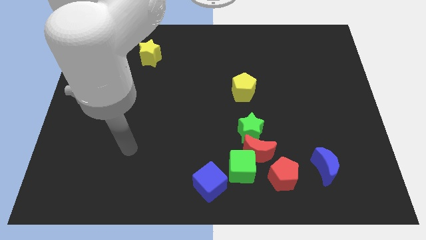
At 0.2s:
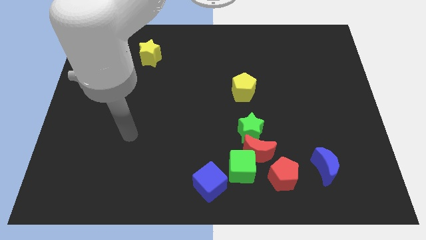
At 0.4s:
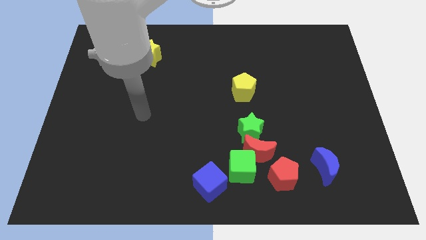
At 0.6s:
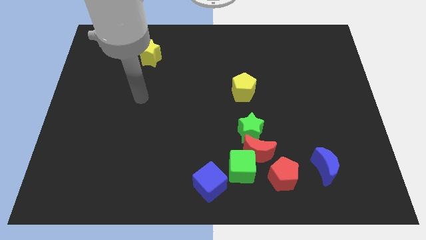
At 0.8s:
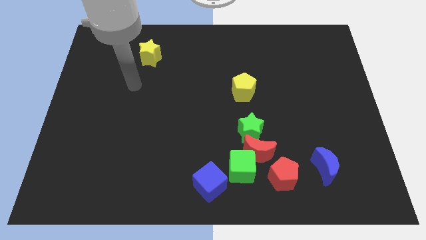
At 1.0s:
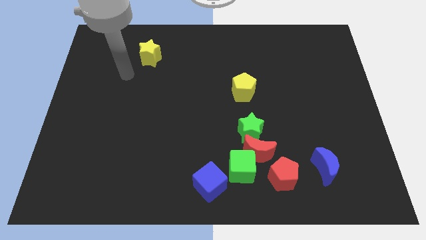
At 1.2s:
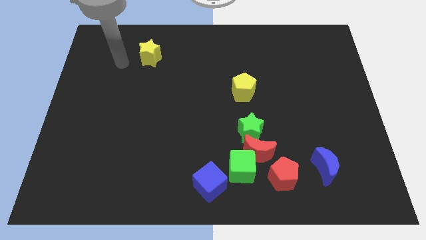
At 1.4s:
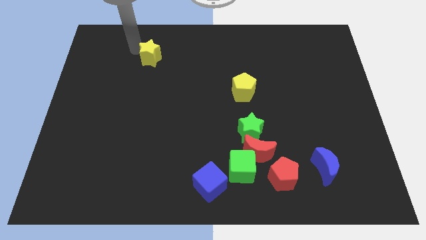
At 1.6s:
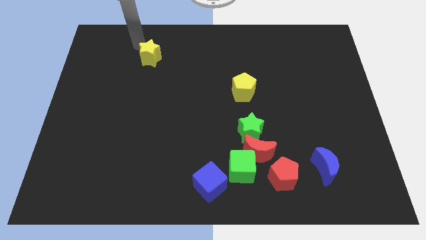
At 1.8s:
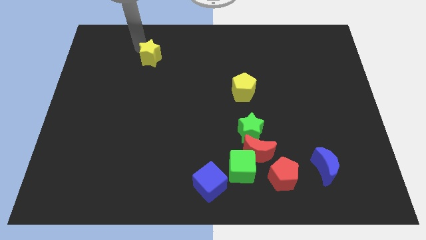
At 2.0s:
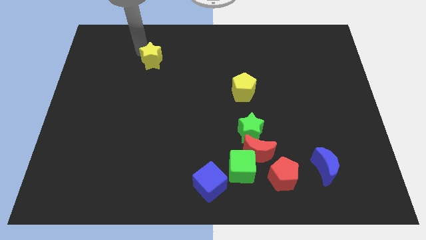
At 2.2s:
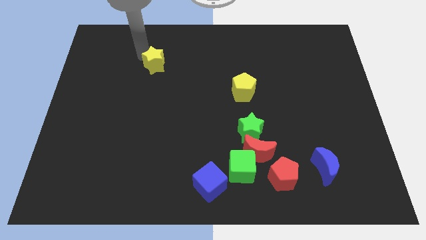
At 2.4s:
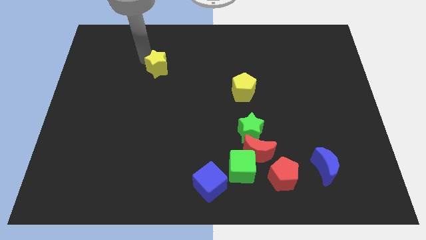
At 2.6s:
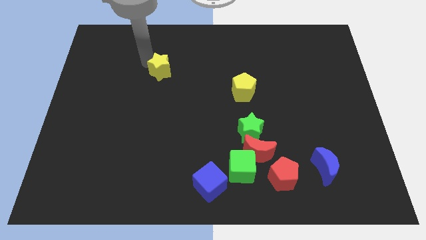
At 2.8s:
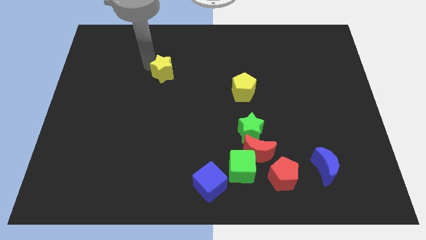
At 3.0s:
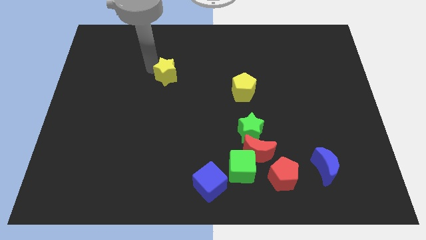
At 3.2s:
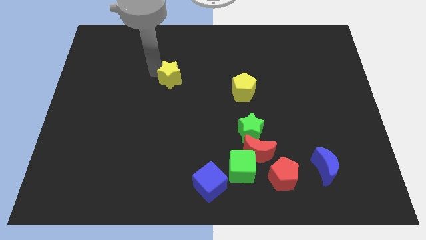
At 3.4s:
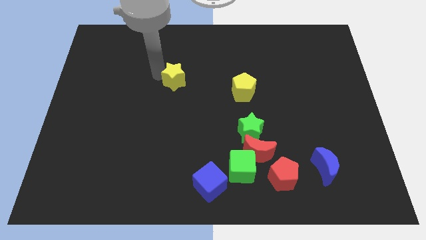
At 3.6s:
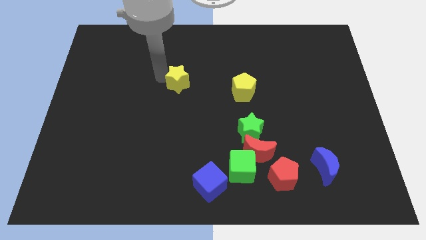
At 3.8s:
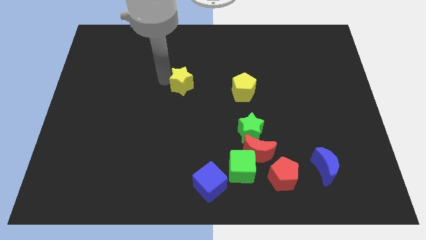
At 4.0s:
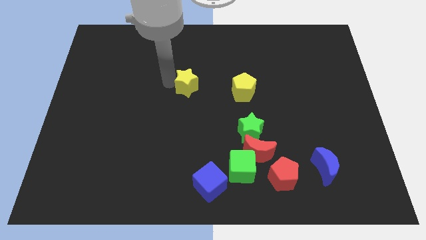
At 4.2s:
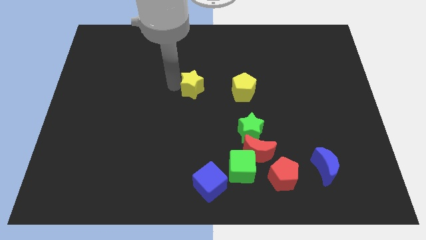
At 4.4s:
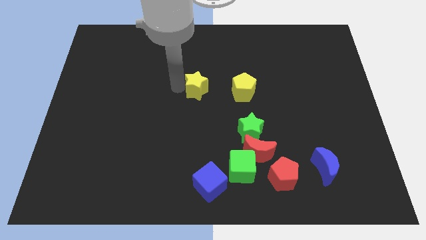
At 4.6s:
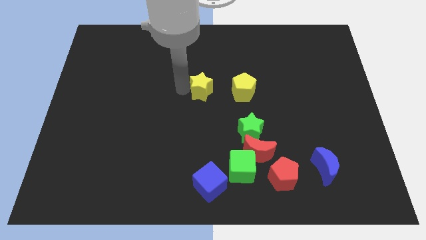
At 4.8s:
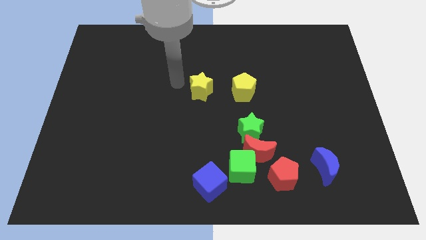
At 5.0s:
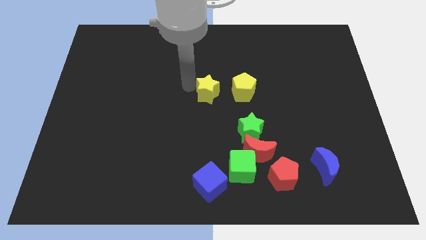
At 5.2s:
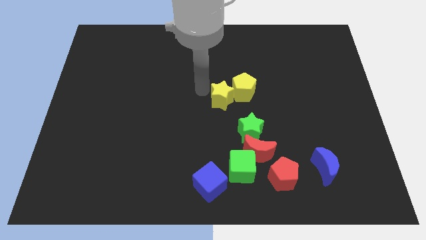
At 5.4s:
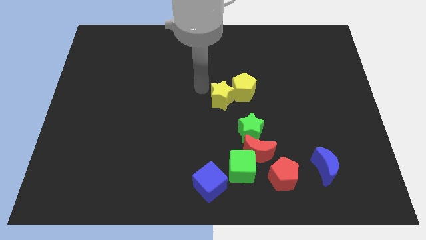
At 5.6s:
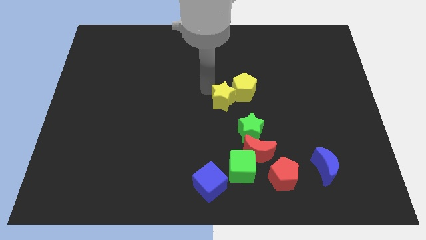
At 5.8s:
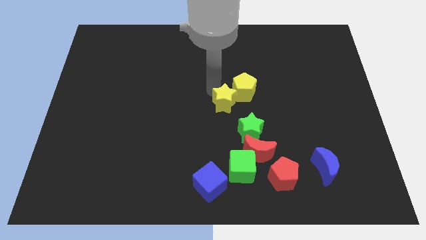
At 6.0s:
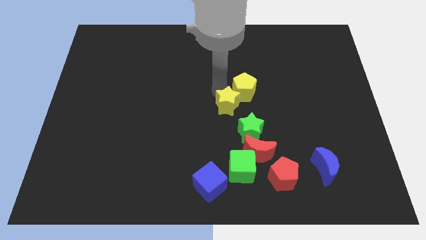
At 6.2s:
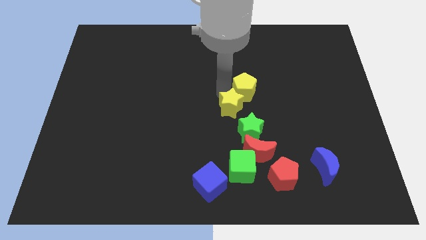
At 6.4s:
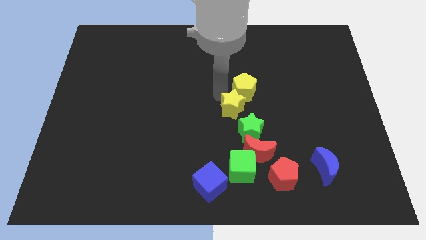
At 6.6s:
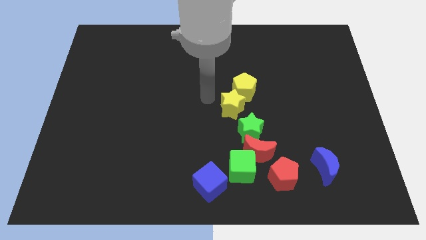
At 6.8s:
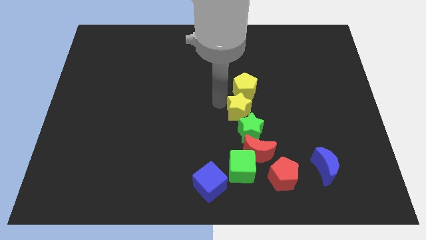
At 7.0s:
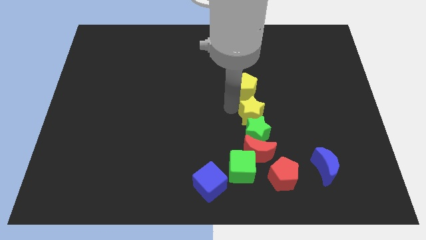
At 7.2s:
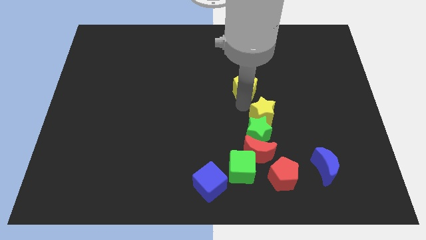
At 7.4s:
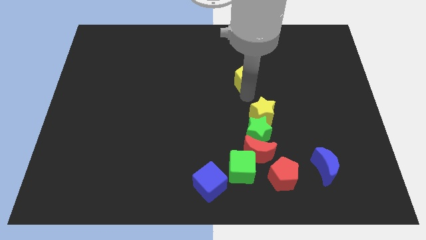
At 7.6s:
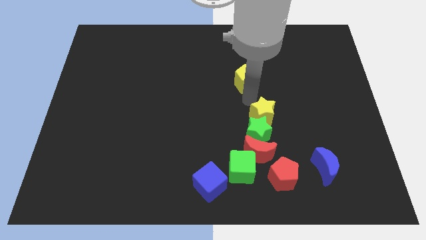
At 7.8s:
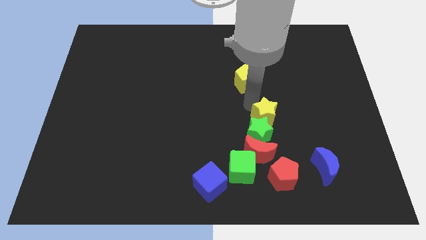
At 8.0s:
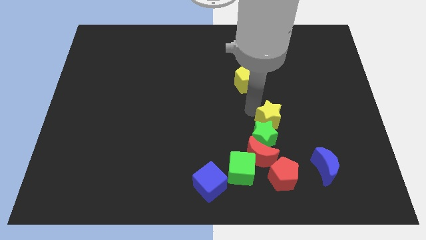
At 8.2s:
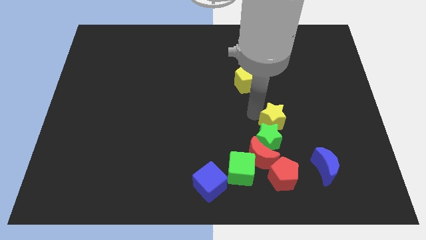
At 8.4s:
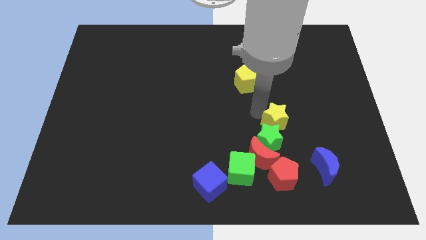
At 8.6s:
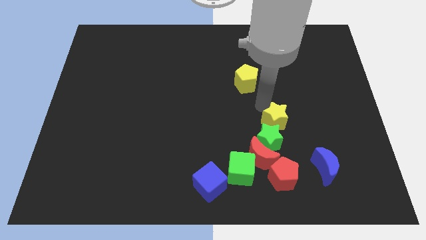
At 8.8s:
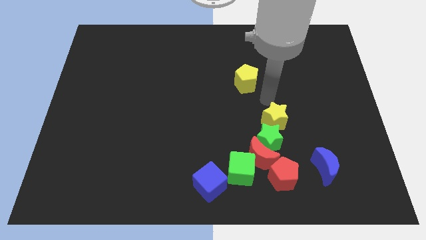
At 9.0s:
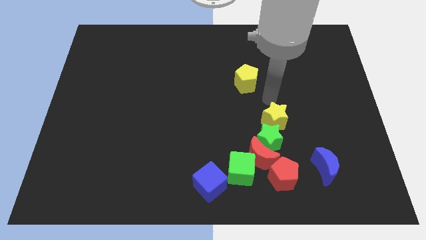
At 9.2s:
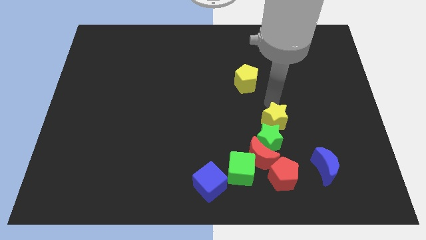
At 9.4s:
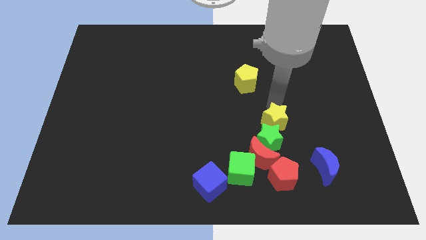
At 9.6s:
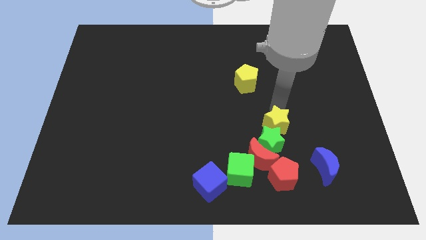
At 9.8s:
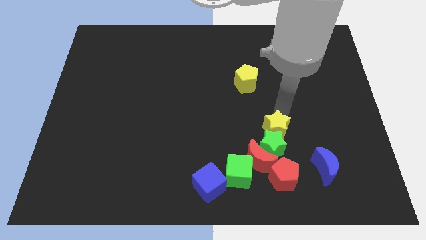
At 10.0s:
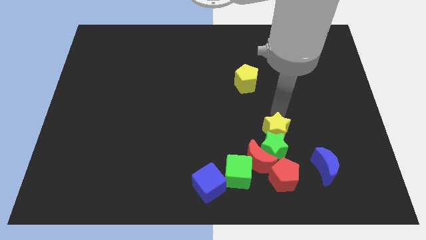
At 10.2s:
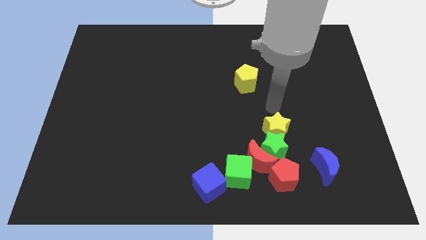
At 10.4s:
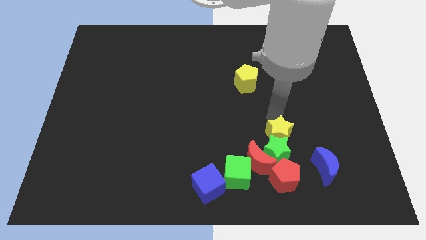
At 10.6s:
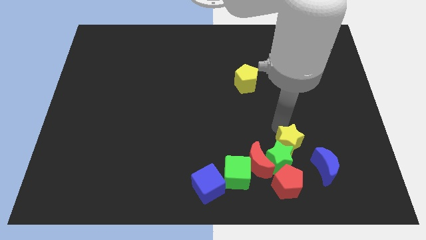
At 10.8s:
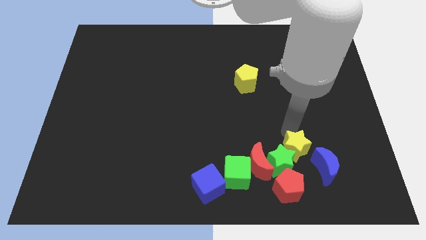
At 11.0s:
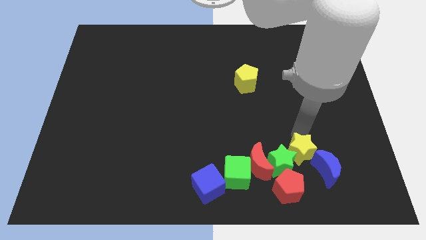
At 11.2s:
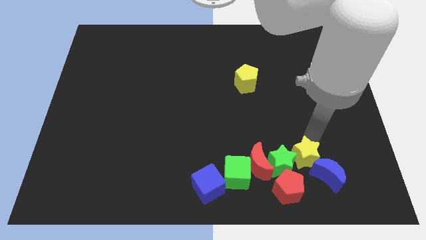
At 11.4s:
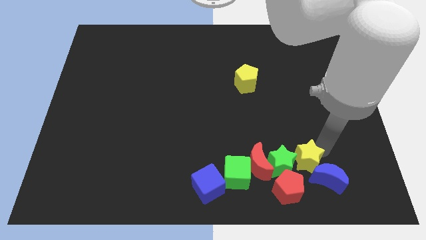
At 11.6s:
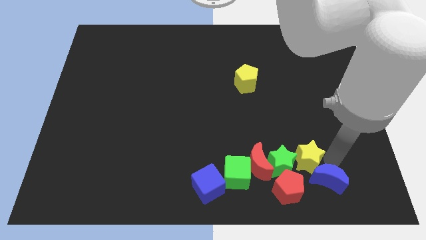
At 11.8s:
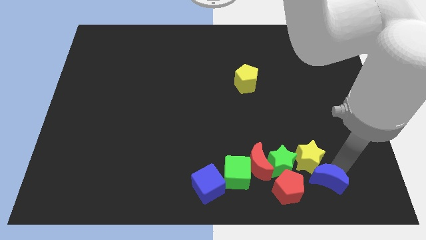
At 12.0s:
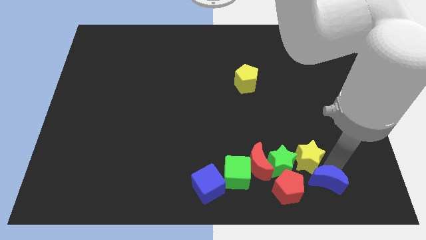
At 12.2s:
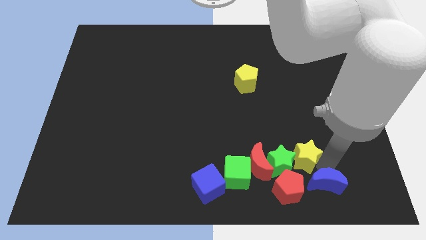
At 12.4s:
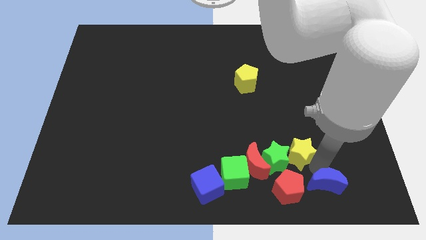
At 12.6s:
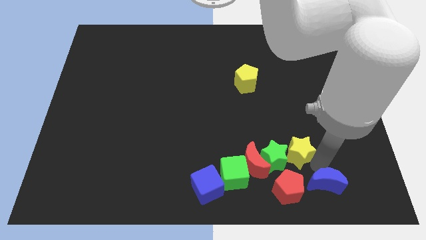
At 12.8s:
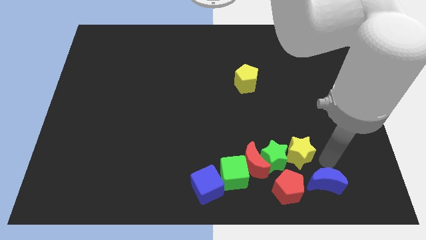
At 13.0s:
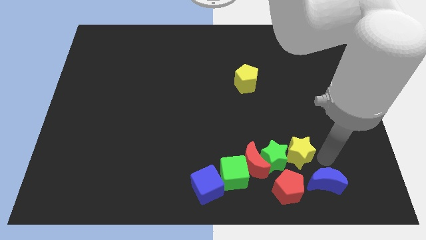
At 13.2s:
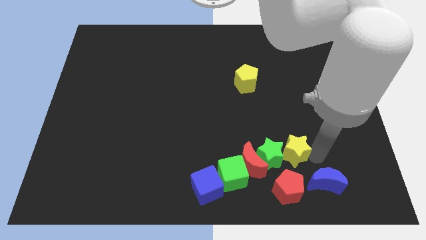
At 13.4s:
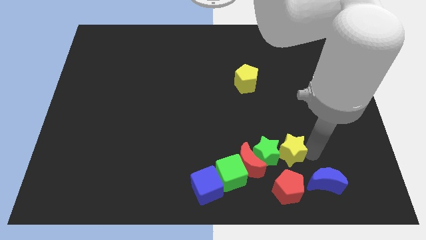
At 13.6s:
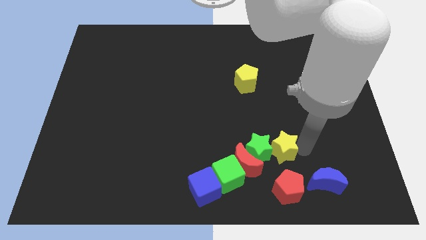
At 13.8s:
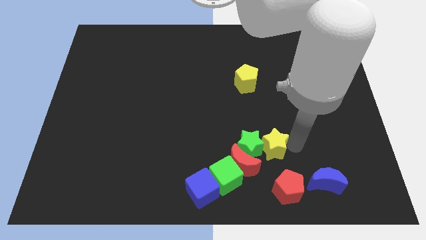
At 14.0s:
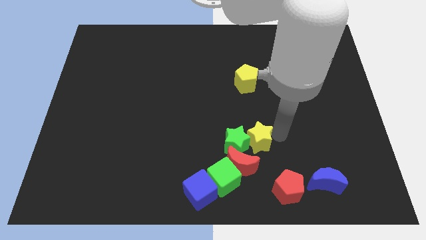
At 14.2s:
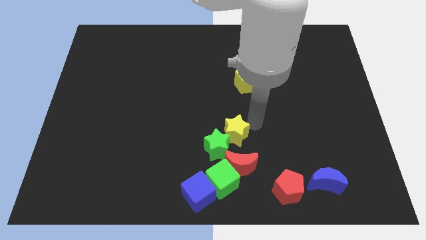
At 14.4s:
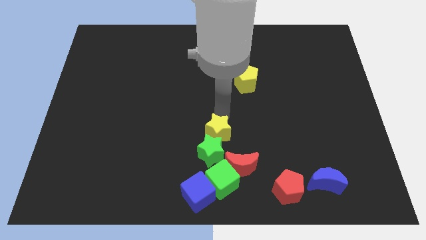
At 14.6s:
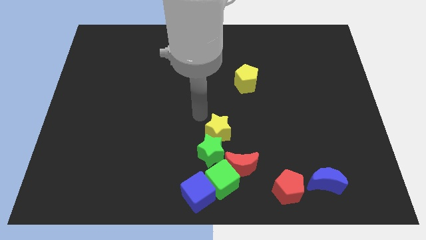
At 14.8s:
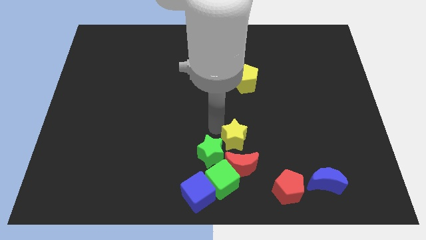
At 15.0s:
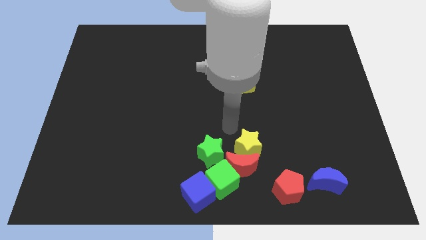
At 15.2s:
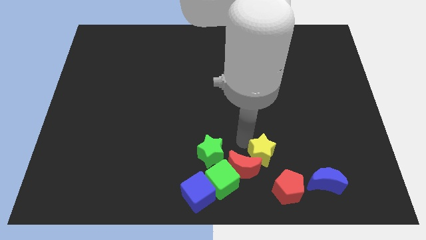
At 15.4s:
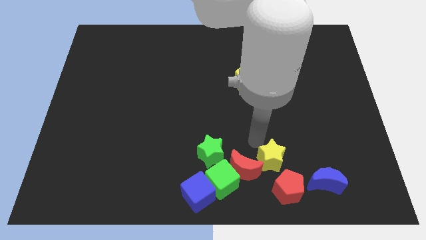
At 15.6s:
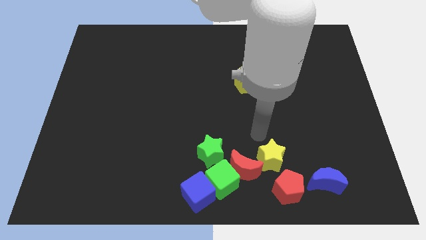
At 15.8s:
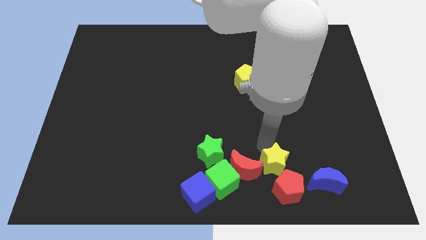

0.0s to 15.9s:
put the yellow star to the red pentagon
